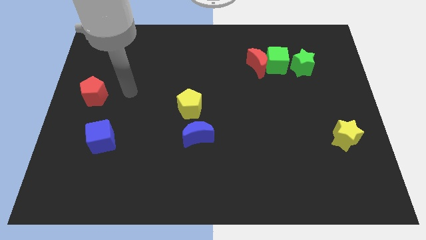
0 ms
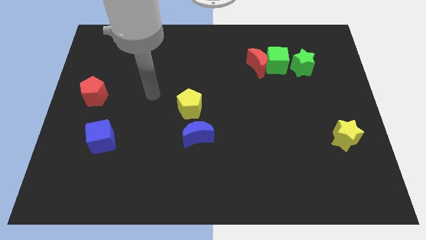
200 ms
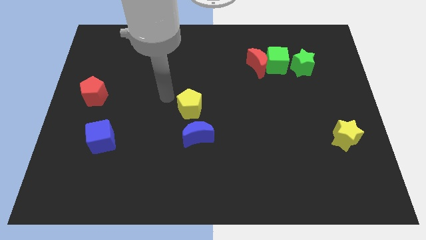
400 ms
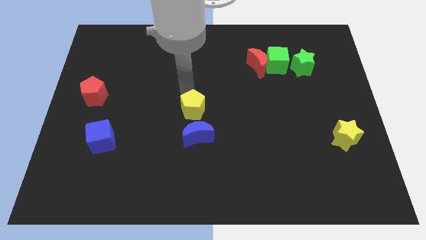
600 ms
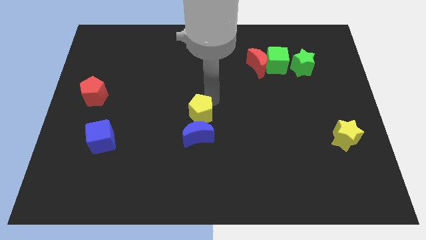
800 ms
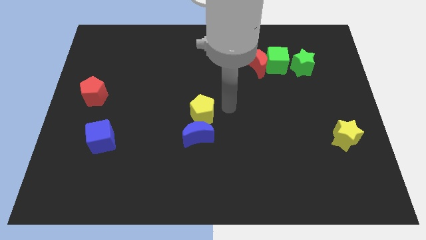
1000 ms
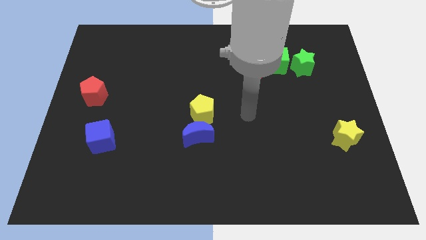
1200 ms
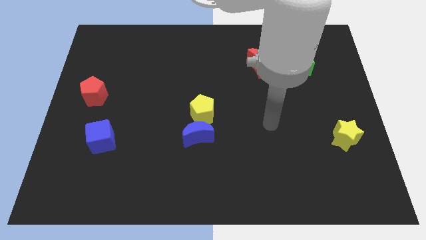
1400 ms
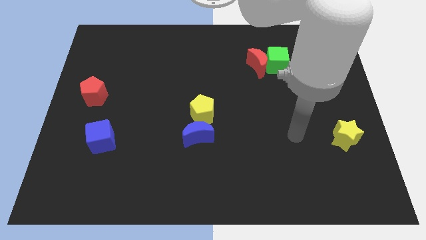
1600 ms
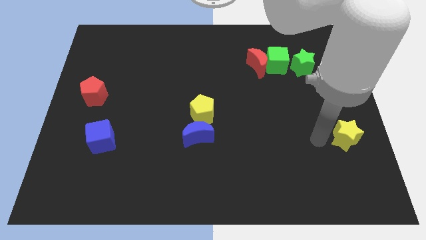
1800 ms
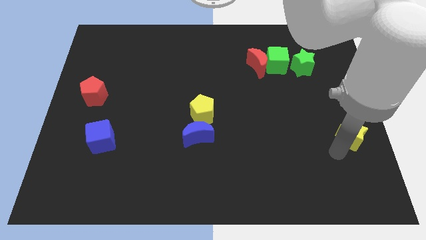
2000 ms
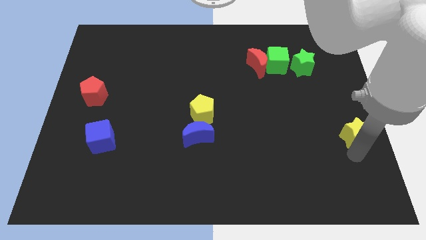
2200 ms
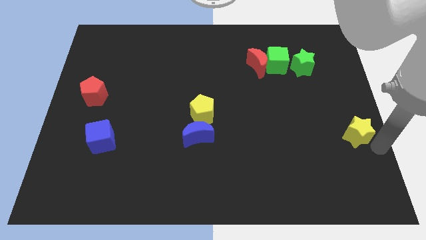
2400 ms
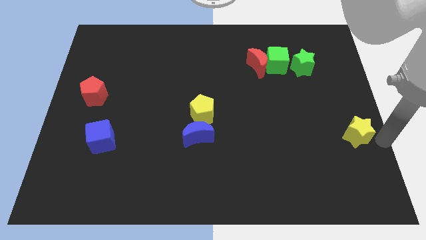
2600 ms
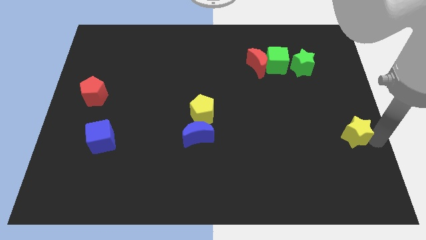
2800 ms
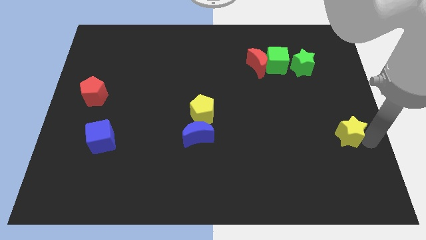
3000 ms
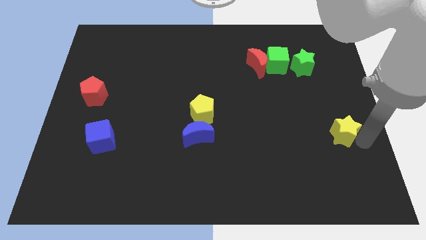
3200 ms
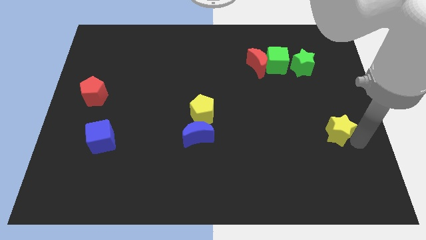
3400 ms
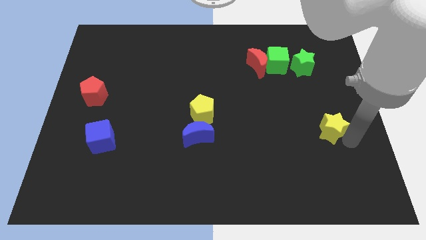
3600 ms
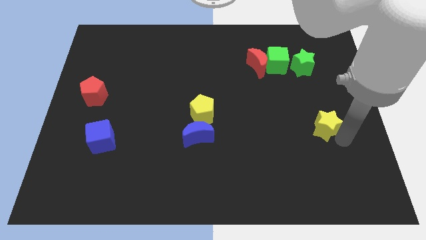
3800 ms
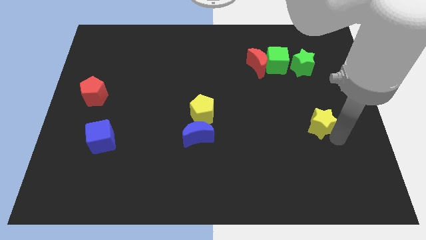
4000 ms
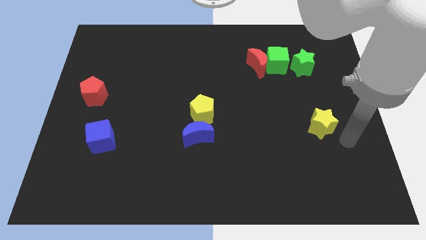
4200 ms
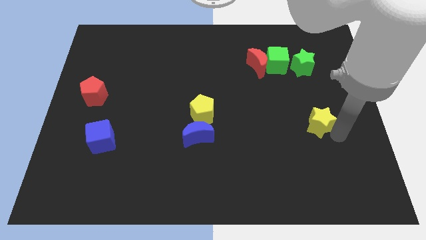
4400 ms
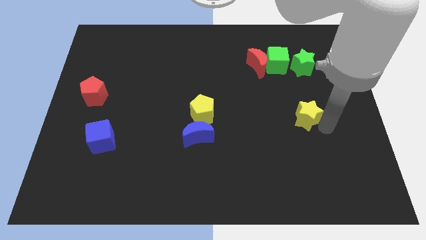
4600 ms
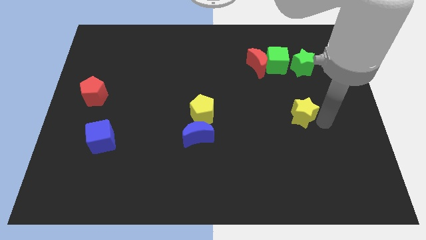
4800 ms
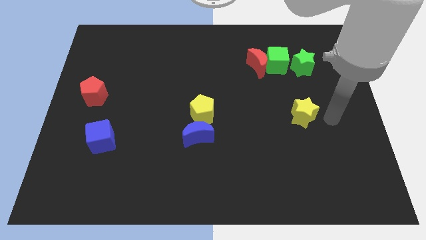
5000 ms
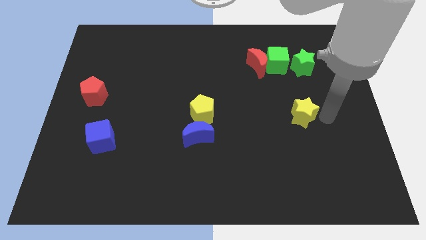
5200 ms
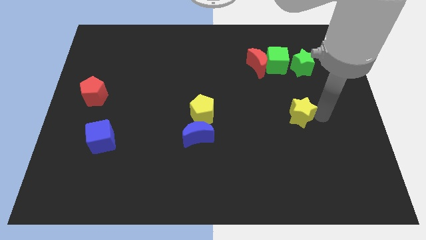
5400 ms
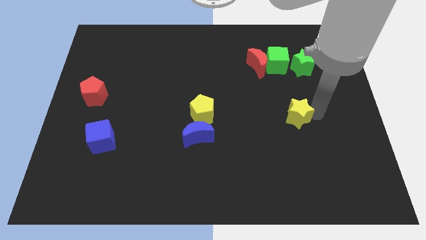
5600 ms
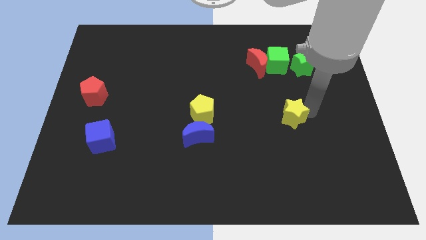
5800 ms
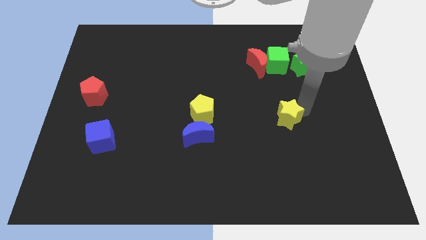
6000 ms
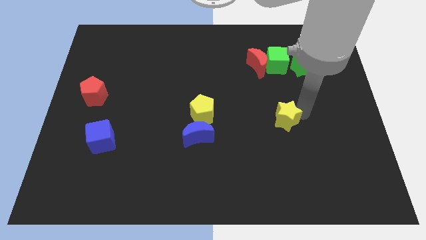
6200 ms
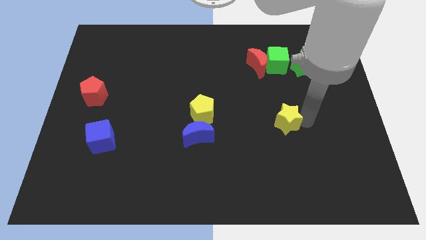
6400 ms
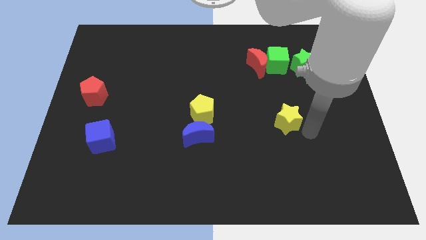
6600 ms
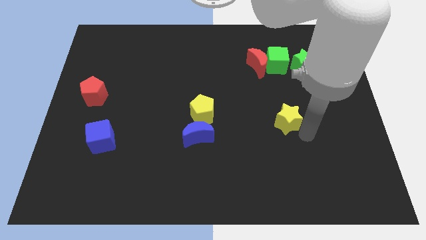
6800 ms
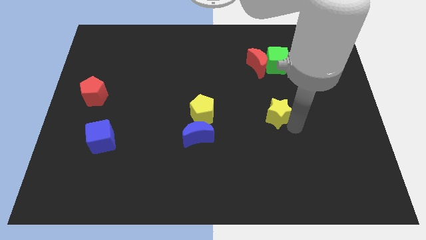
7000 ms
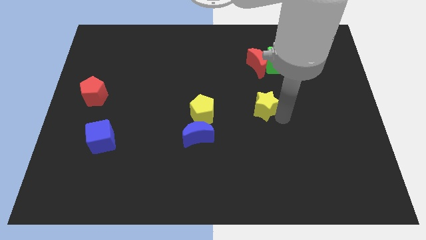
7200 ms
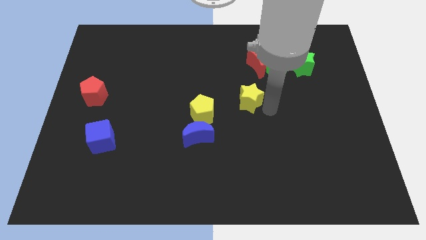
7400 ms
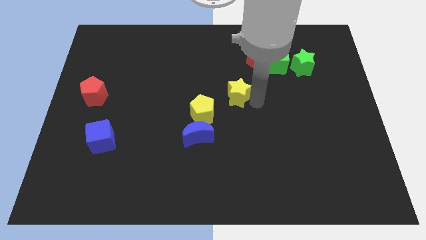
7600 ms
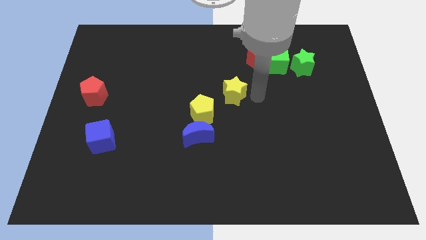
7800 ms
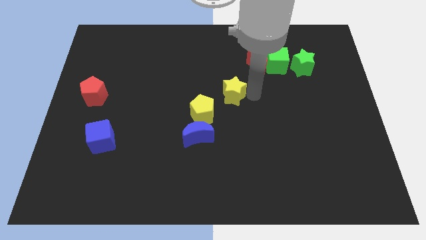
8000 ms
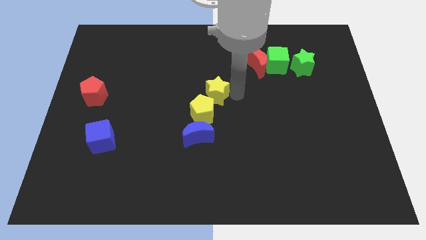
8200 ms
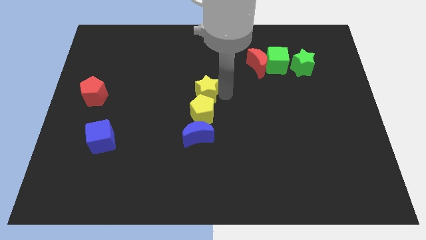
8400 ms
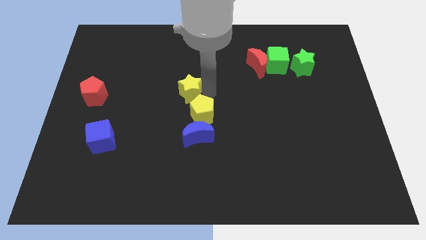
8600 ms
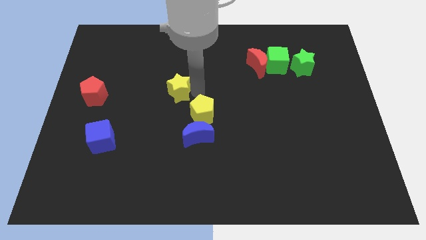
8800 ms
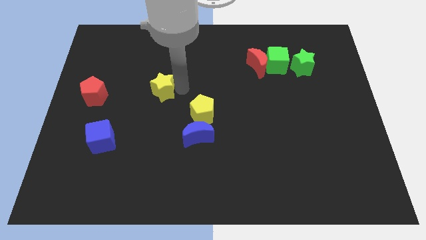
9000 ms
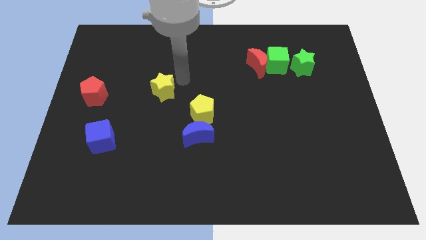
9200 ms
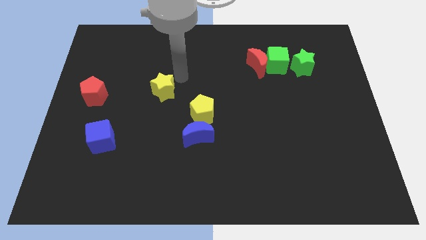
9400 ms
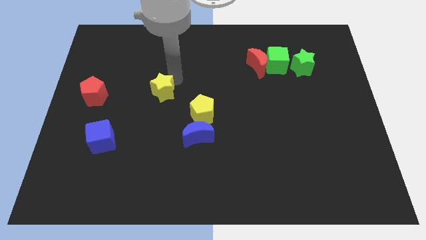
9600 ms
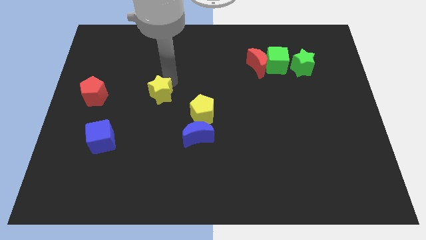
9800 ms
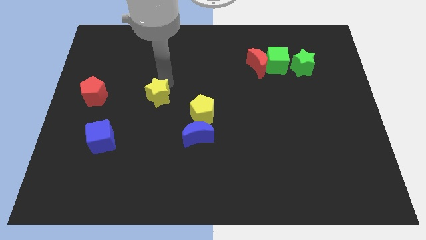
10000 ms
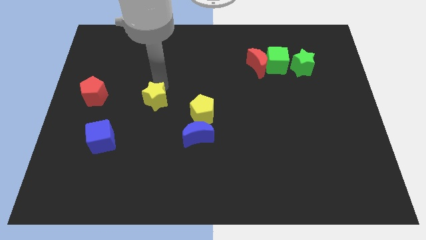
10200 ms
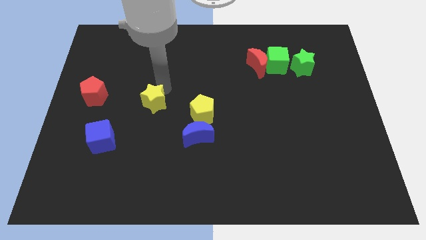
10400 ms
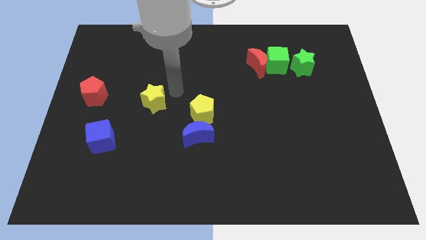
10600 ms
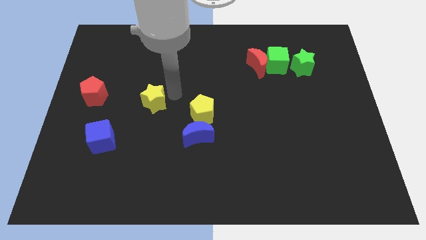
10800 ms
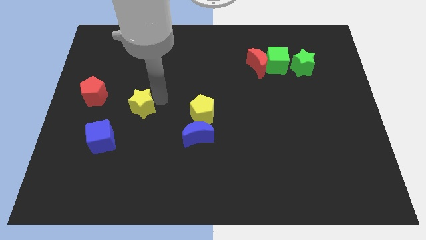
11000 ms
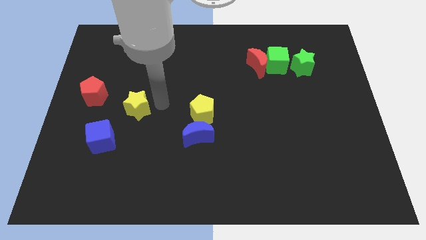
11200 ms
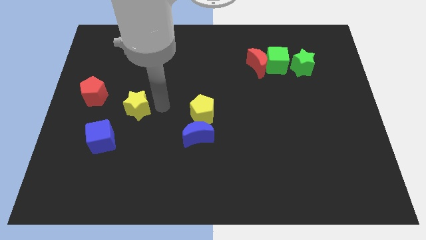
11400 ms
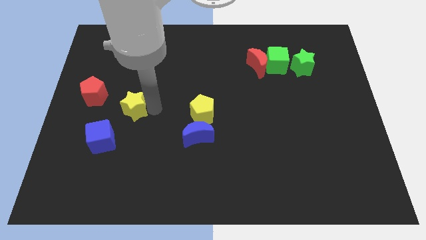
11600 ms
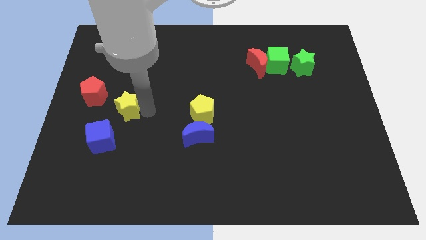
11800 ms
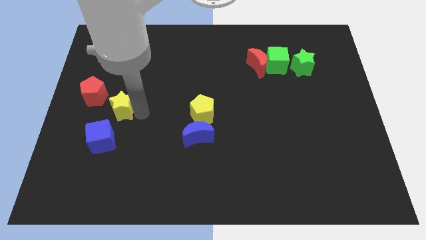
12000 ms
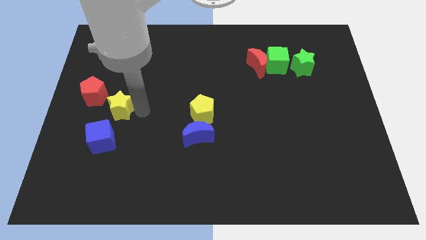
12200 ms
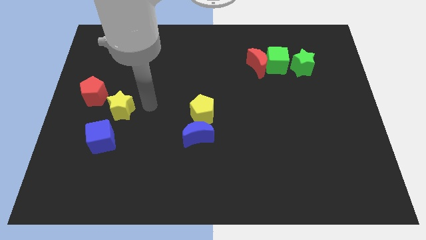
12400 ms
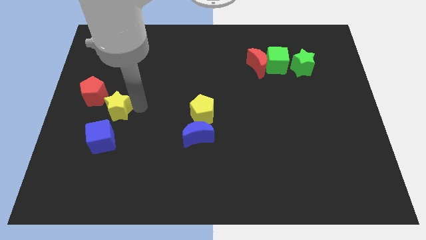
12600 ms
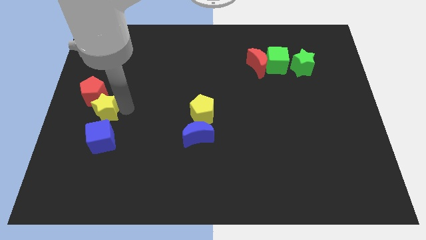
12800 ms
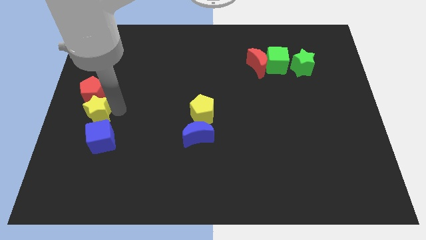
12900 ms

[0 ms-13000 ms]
move the yellow star to the center left

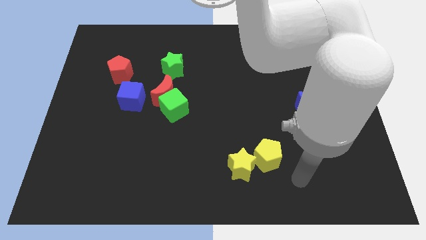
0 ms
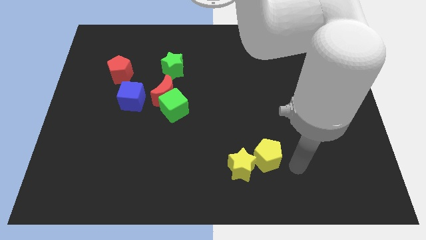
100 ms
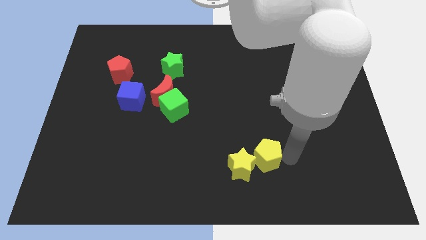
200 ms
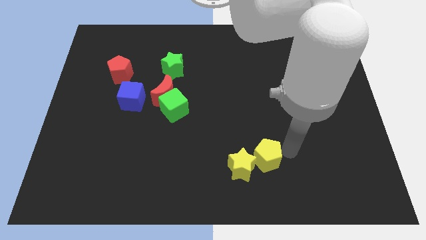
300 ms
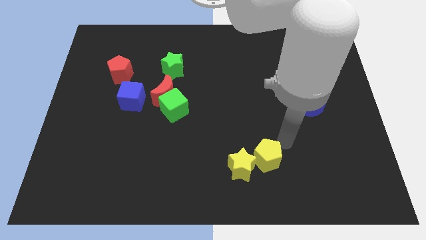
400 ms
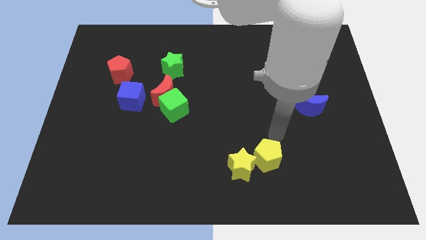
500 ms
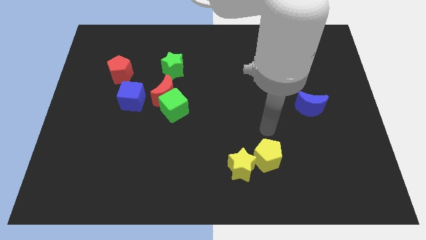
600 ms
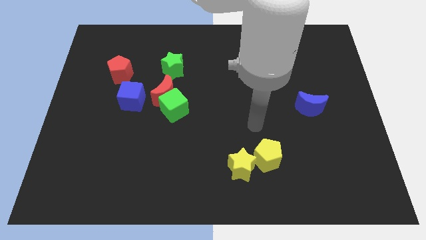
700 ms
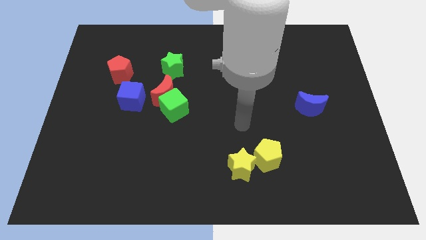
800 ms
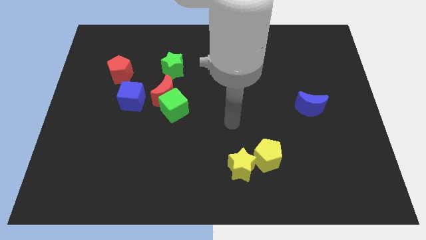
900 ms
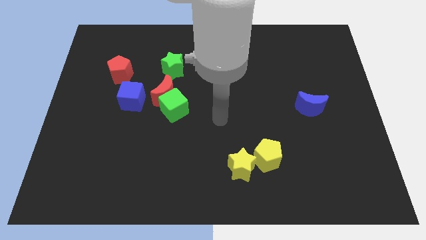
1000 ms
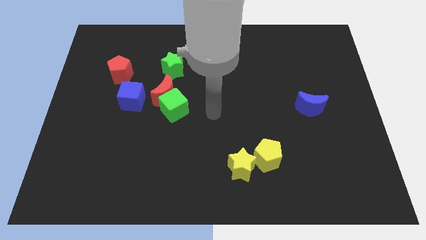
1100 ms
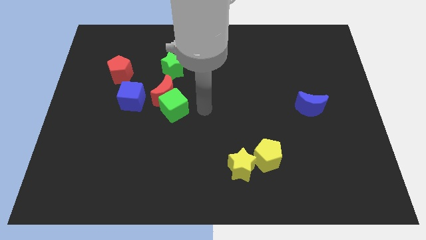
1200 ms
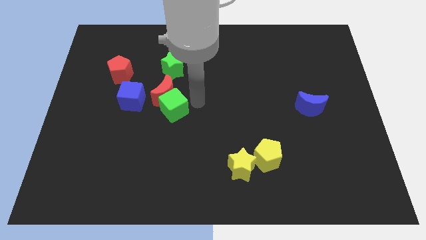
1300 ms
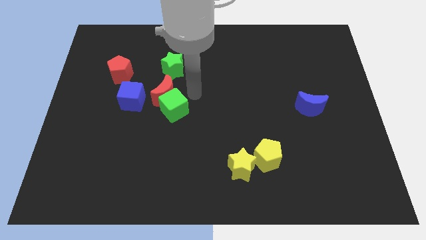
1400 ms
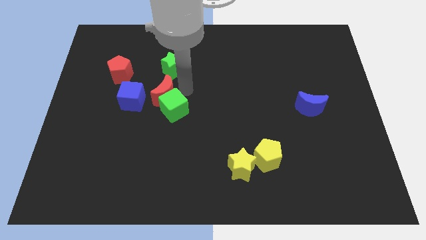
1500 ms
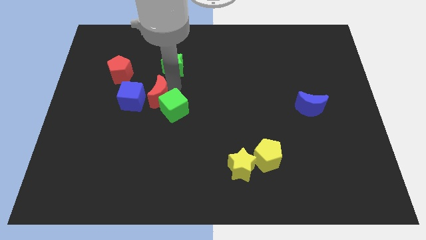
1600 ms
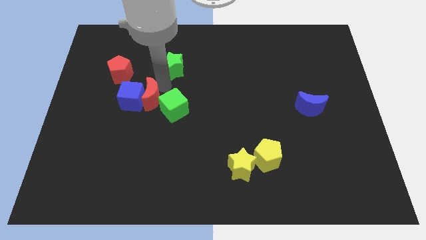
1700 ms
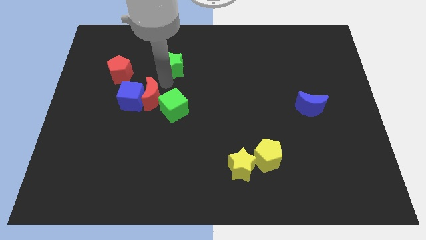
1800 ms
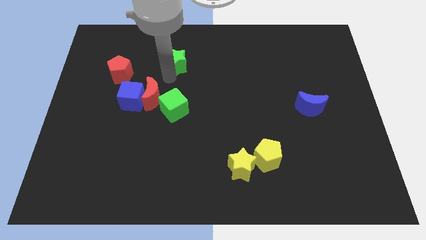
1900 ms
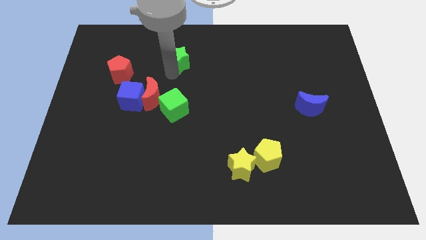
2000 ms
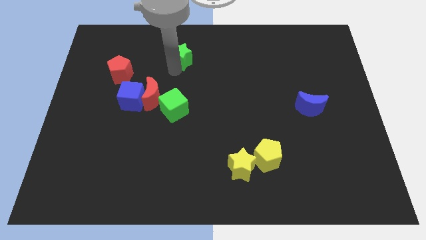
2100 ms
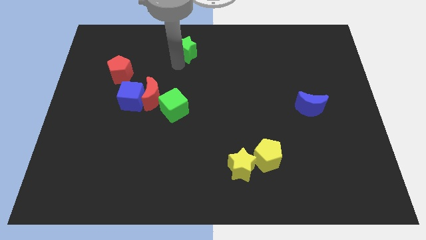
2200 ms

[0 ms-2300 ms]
put the green star to the top side
